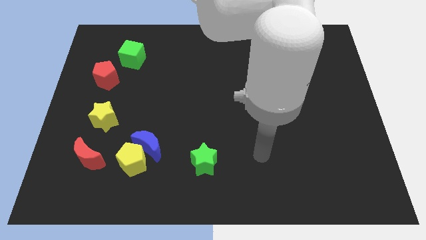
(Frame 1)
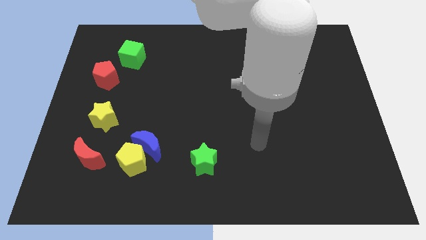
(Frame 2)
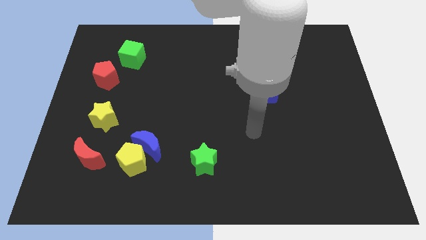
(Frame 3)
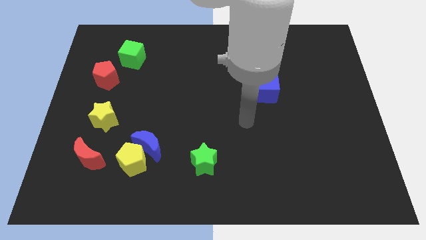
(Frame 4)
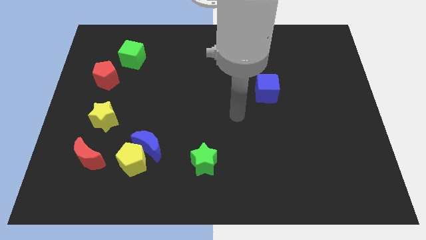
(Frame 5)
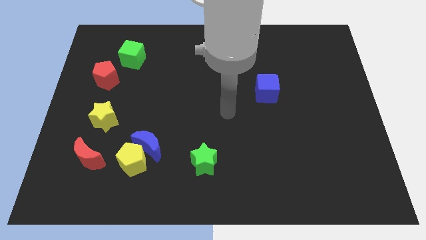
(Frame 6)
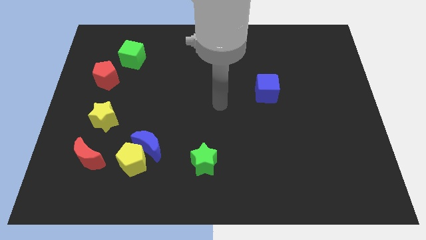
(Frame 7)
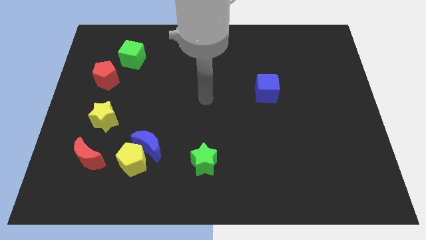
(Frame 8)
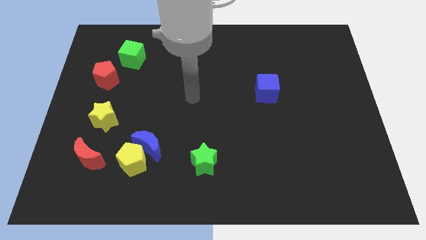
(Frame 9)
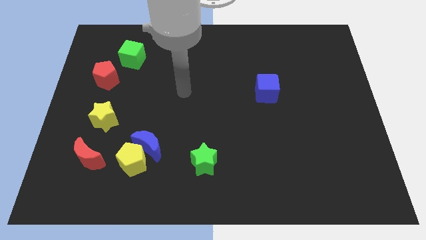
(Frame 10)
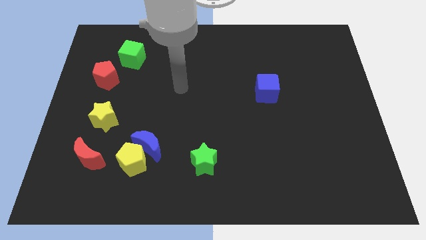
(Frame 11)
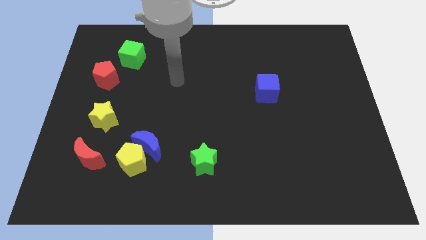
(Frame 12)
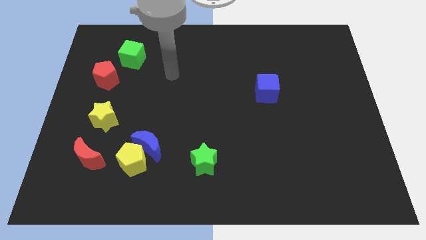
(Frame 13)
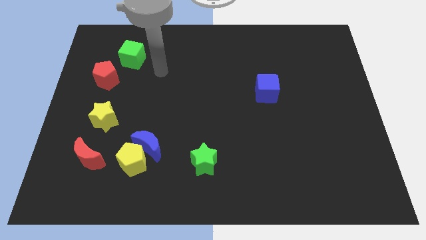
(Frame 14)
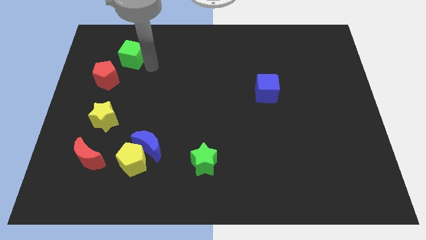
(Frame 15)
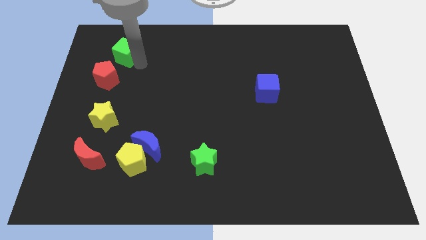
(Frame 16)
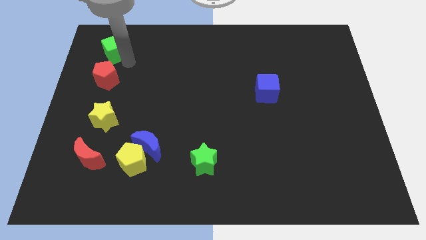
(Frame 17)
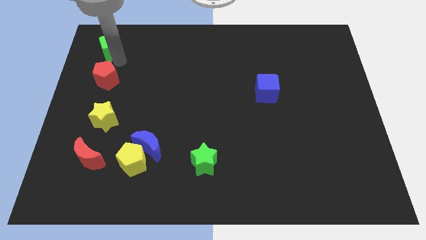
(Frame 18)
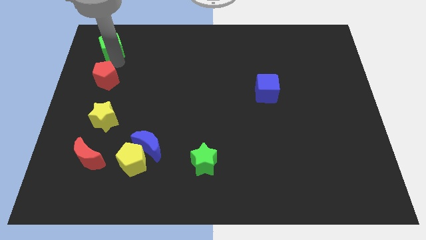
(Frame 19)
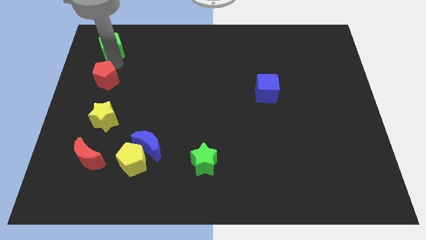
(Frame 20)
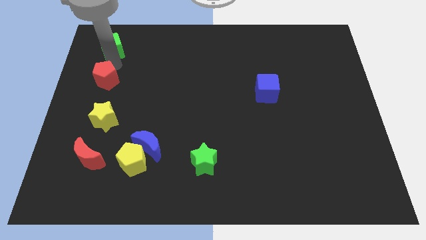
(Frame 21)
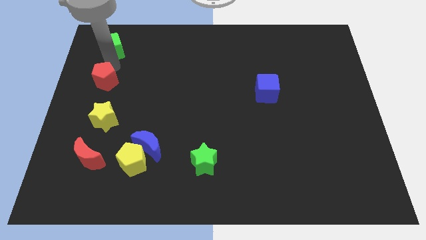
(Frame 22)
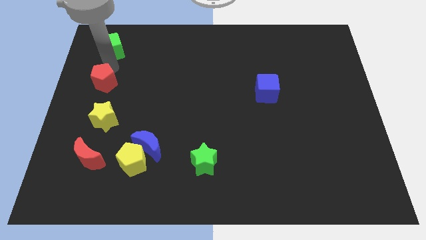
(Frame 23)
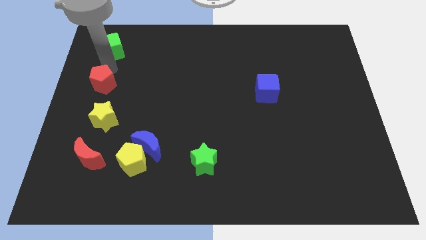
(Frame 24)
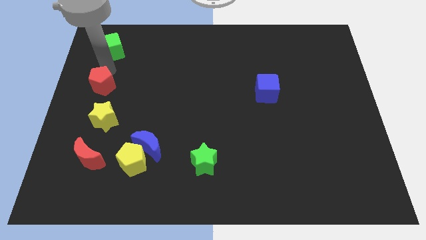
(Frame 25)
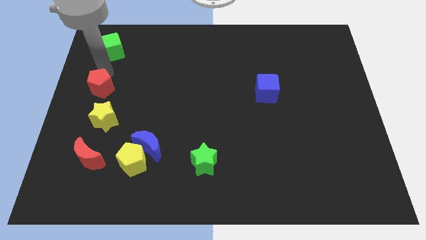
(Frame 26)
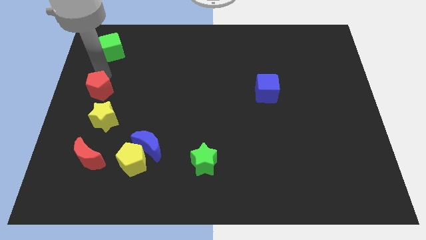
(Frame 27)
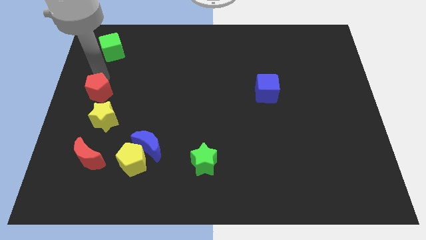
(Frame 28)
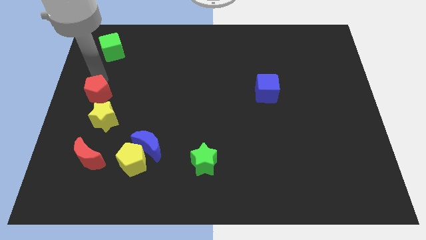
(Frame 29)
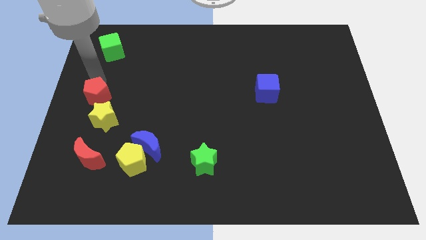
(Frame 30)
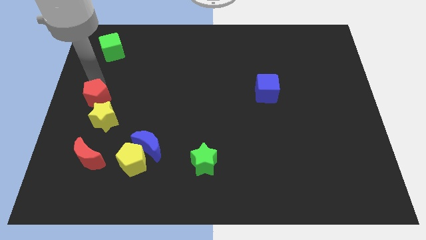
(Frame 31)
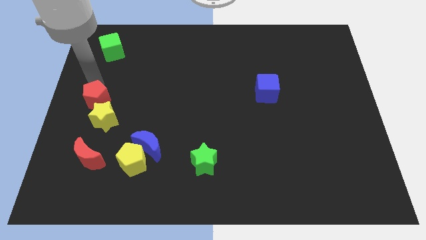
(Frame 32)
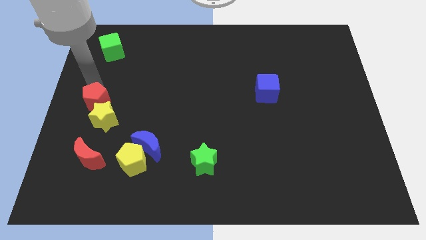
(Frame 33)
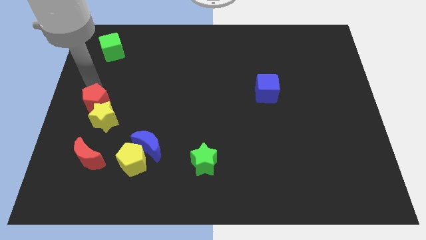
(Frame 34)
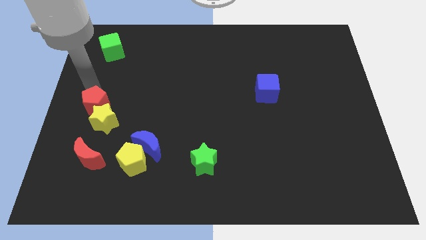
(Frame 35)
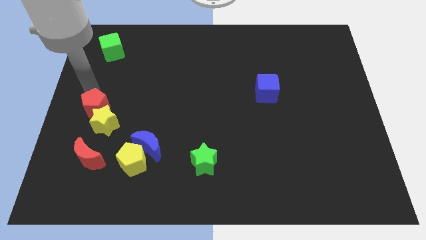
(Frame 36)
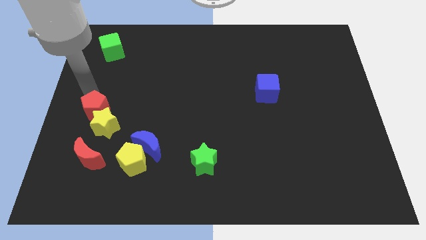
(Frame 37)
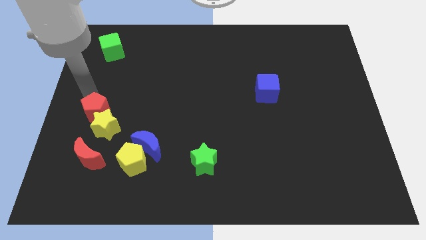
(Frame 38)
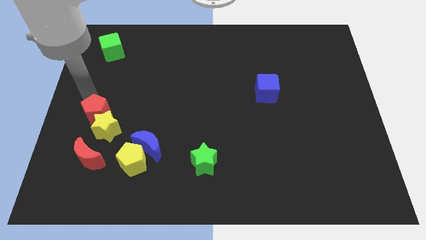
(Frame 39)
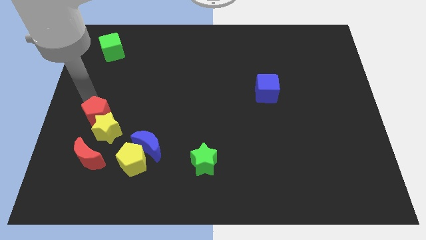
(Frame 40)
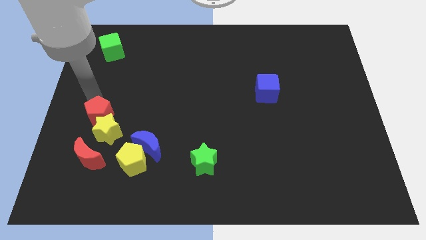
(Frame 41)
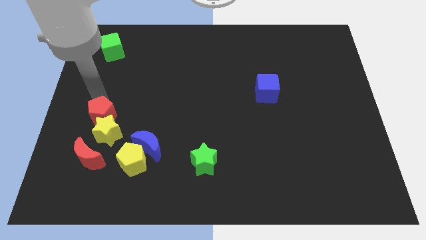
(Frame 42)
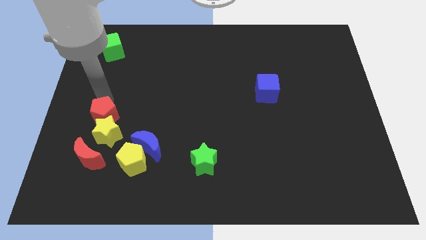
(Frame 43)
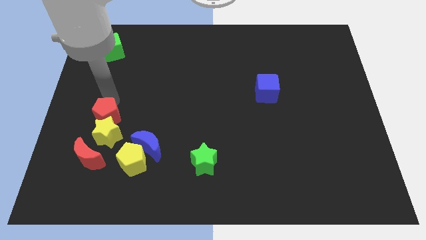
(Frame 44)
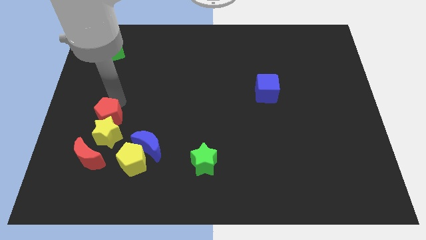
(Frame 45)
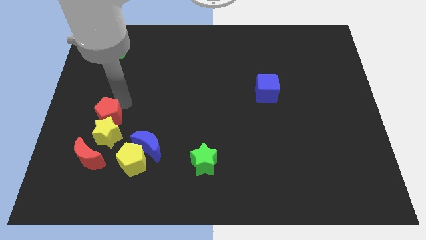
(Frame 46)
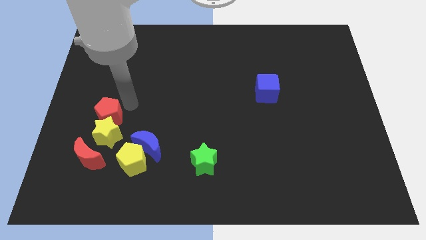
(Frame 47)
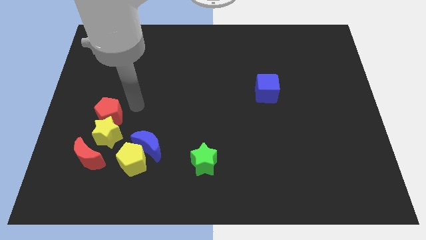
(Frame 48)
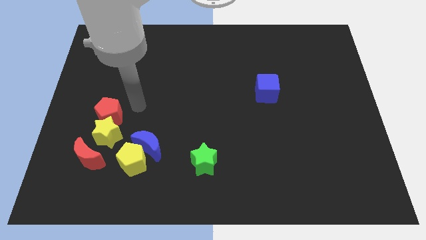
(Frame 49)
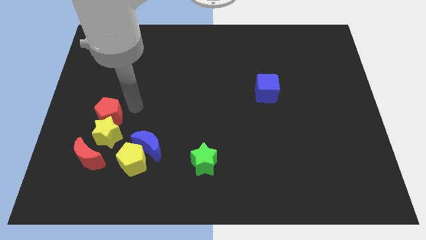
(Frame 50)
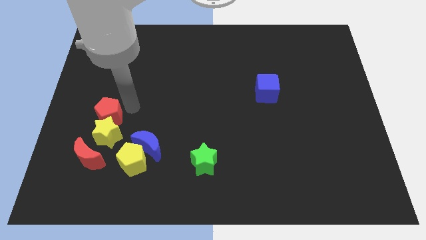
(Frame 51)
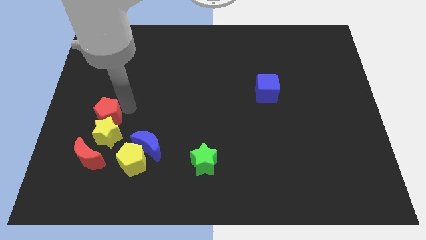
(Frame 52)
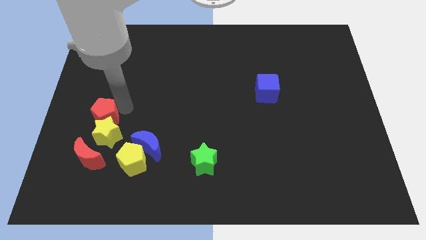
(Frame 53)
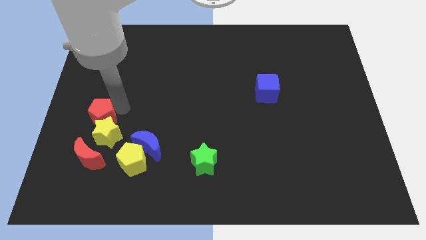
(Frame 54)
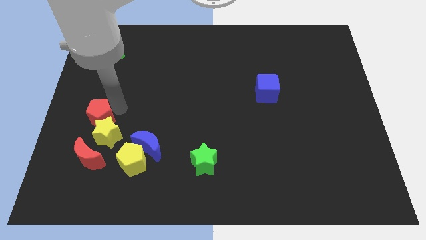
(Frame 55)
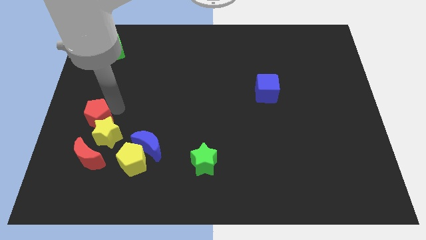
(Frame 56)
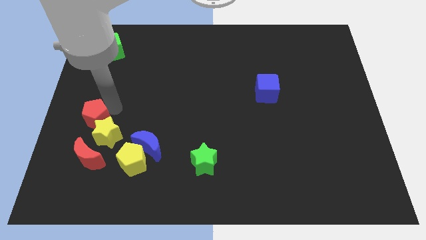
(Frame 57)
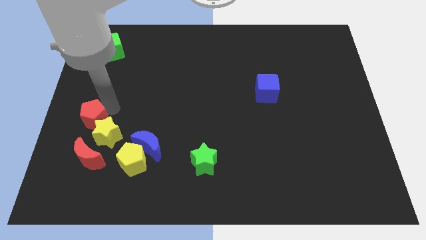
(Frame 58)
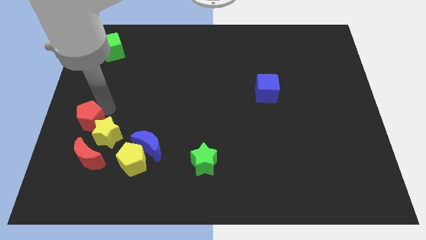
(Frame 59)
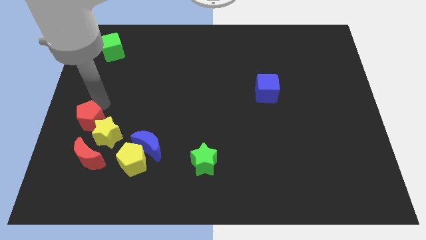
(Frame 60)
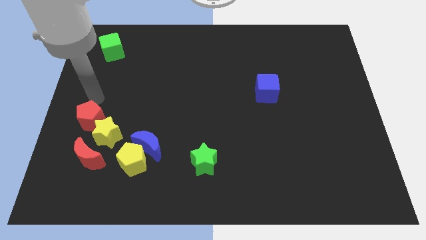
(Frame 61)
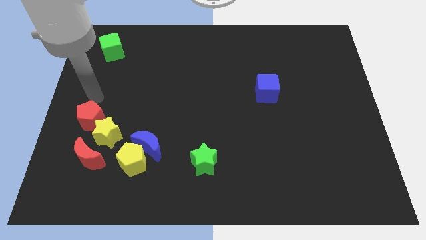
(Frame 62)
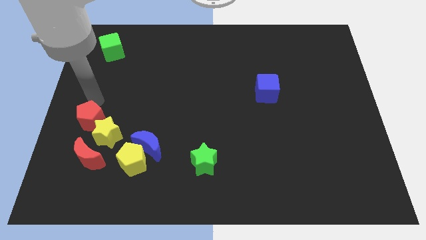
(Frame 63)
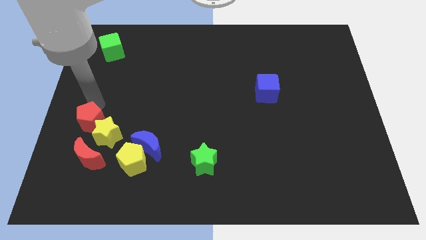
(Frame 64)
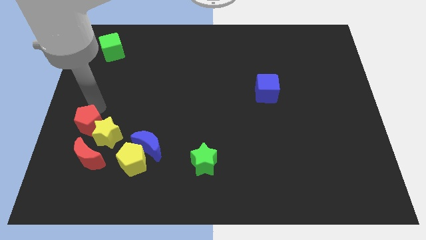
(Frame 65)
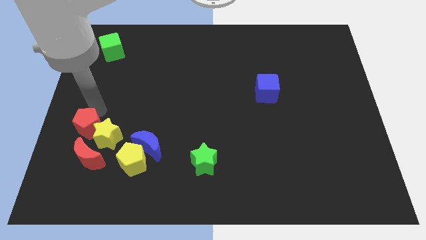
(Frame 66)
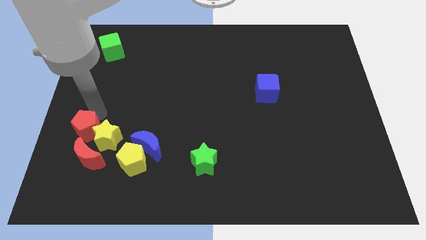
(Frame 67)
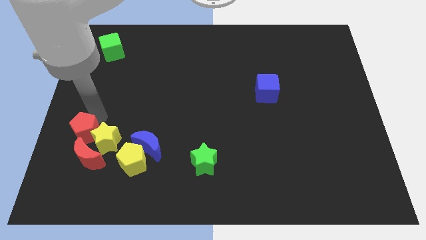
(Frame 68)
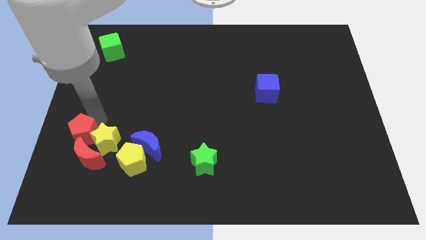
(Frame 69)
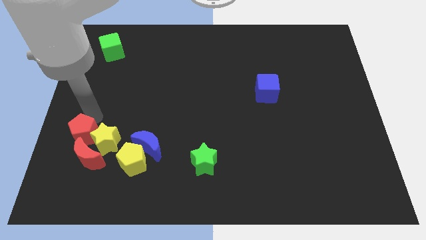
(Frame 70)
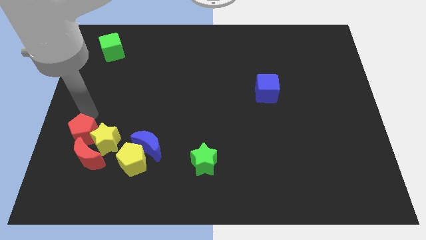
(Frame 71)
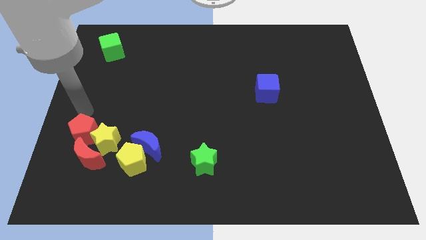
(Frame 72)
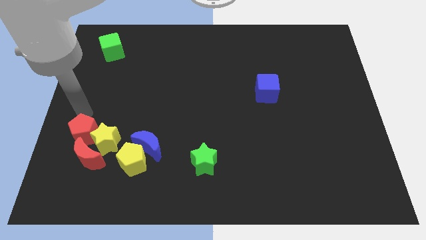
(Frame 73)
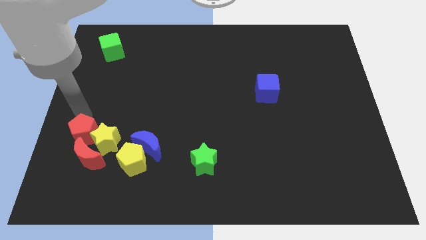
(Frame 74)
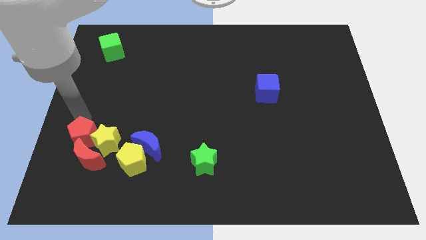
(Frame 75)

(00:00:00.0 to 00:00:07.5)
push the red pentagon close to the red moon

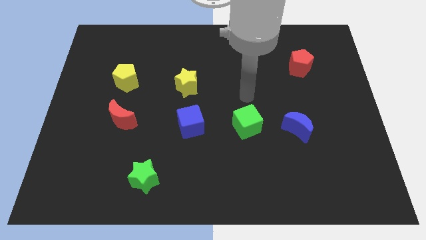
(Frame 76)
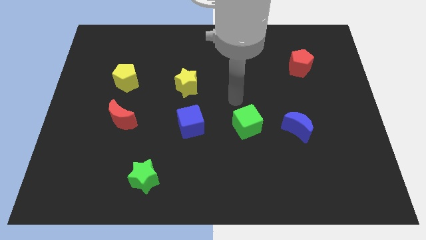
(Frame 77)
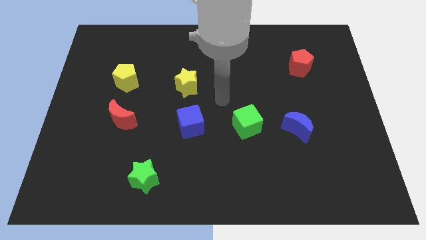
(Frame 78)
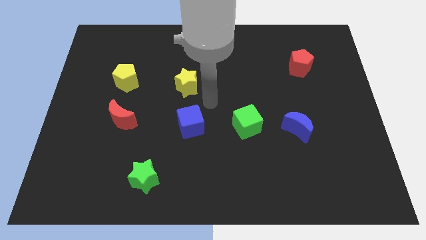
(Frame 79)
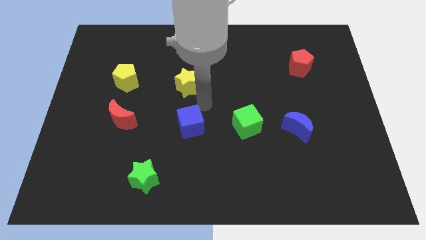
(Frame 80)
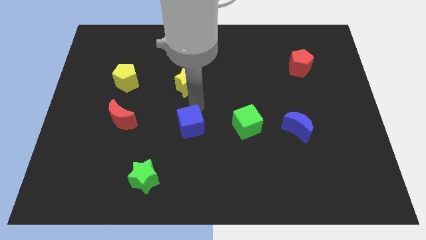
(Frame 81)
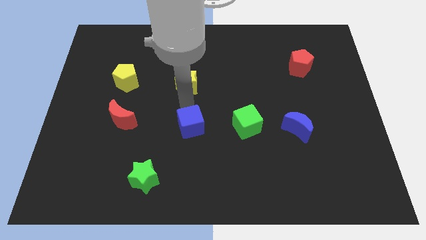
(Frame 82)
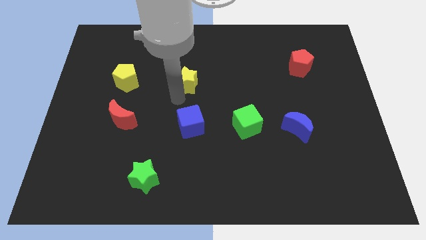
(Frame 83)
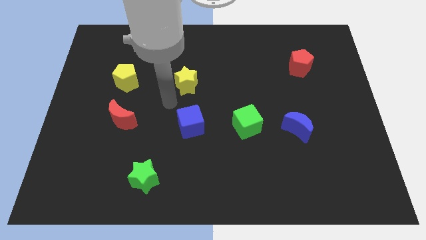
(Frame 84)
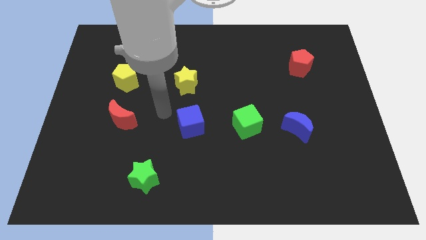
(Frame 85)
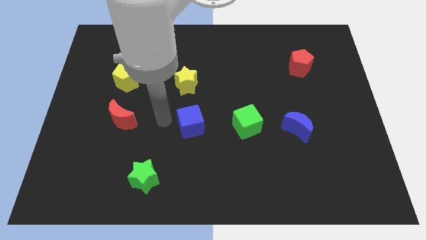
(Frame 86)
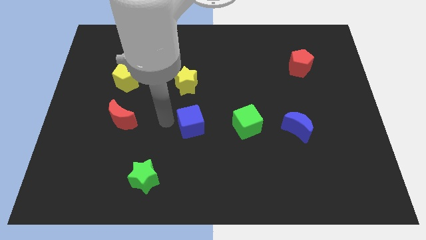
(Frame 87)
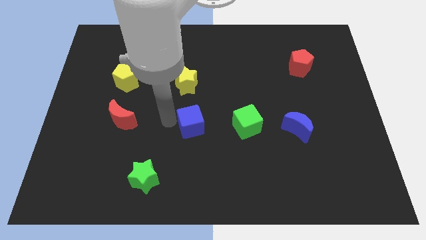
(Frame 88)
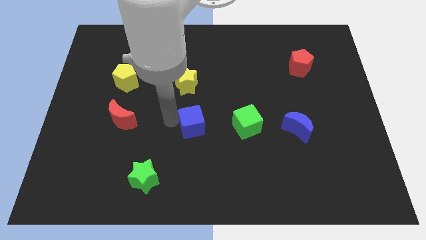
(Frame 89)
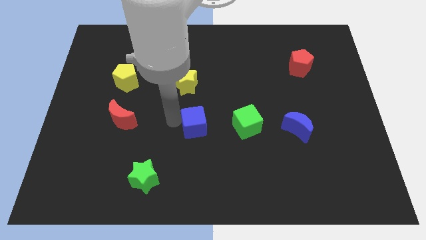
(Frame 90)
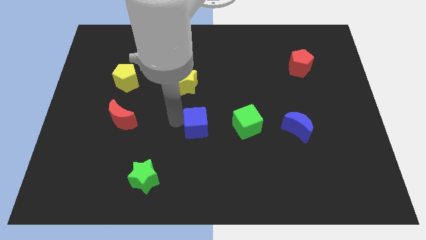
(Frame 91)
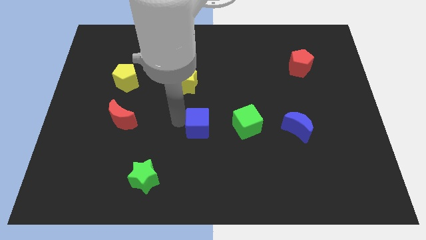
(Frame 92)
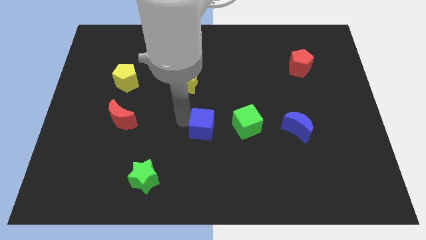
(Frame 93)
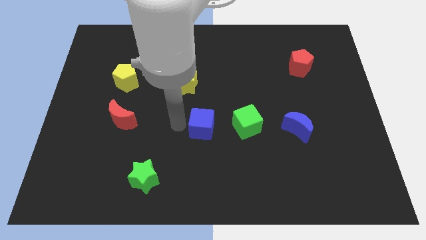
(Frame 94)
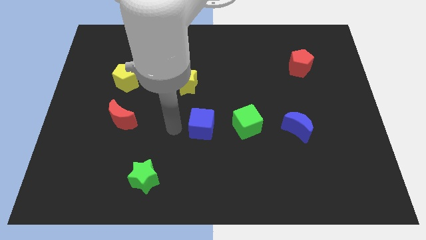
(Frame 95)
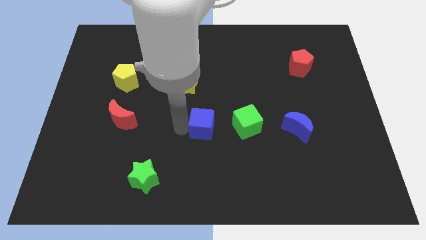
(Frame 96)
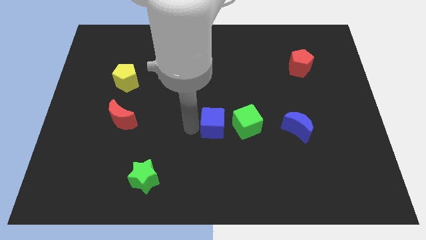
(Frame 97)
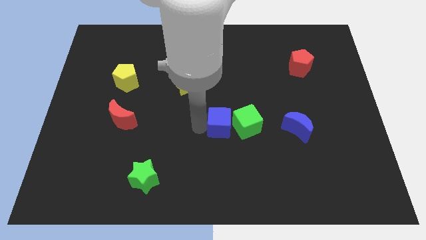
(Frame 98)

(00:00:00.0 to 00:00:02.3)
move the blue cube to the green cube
